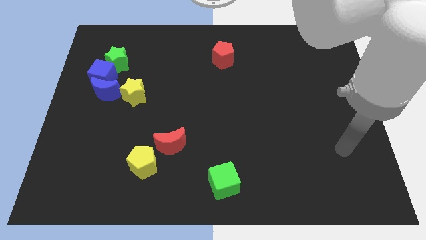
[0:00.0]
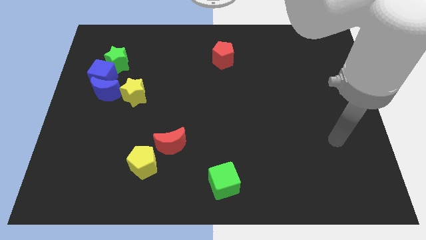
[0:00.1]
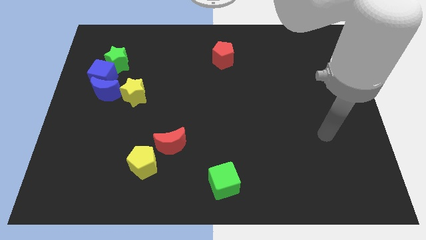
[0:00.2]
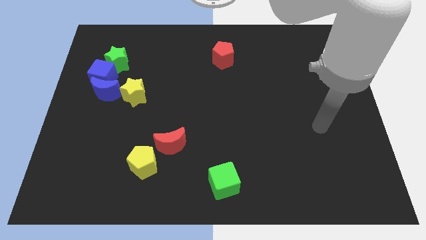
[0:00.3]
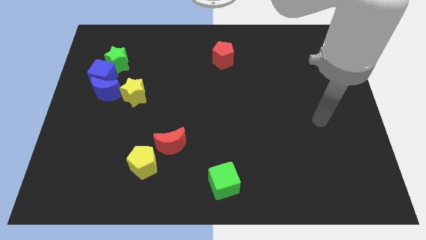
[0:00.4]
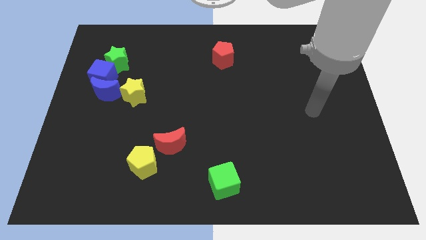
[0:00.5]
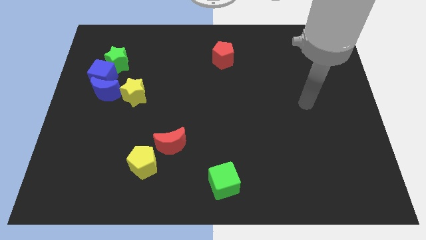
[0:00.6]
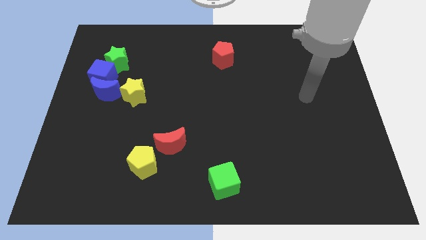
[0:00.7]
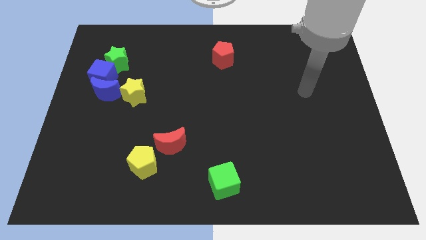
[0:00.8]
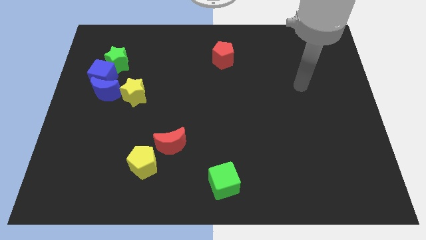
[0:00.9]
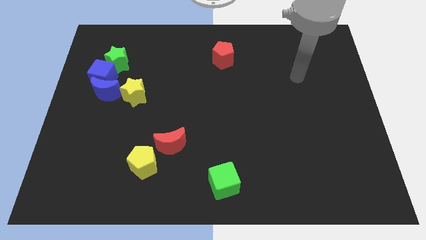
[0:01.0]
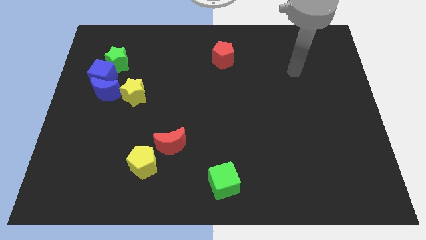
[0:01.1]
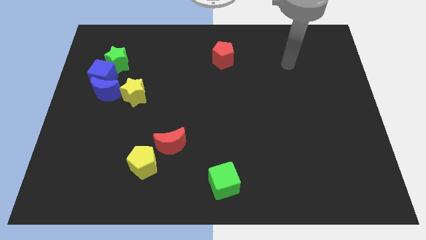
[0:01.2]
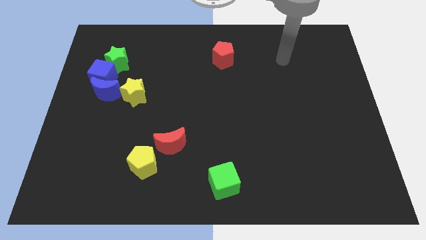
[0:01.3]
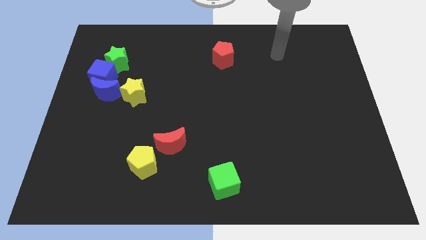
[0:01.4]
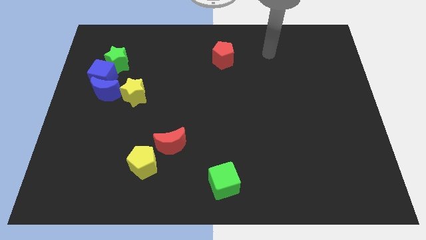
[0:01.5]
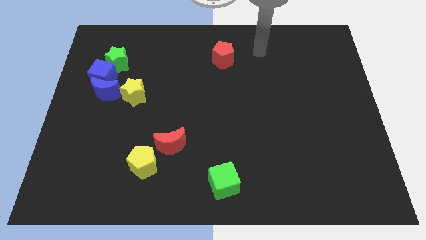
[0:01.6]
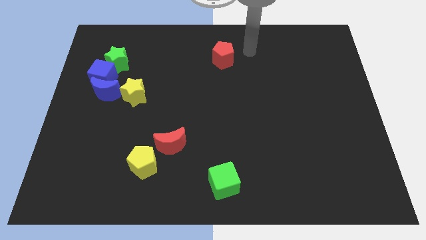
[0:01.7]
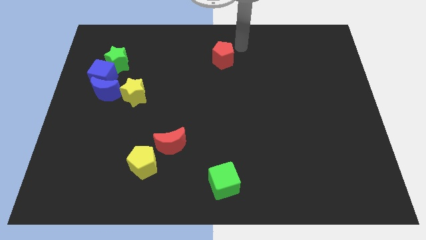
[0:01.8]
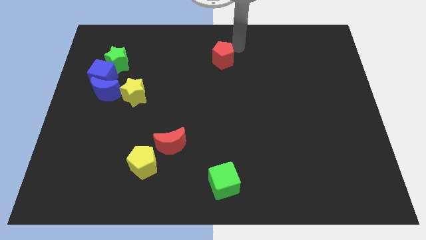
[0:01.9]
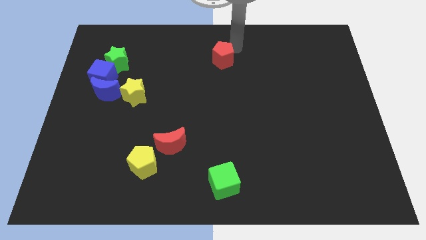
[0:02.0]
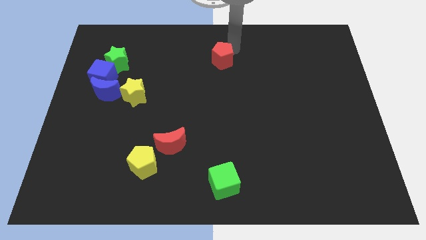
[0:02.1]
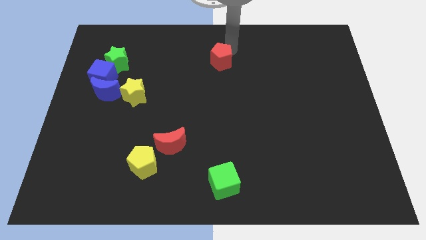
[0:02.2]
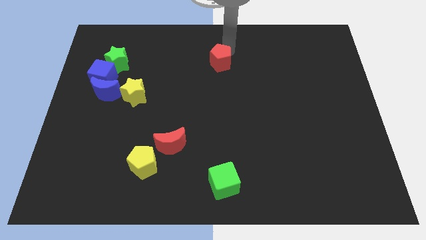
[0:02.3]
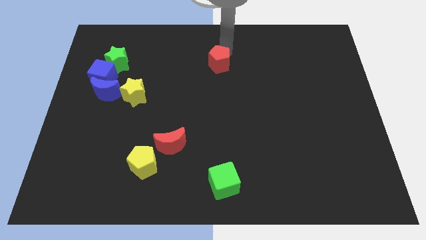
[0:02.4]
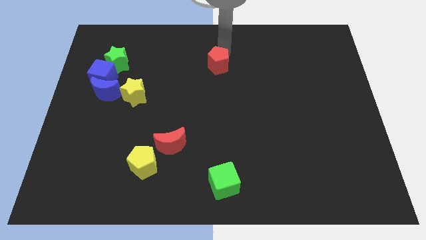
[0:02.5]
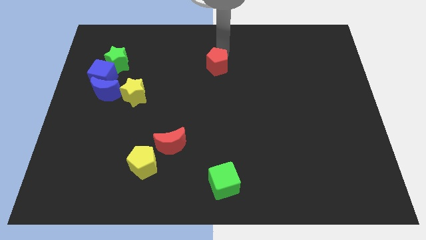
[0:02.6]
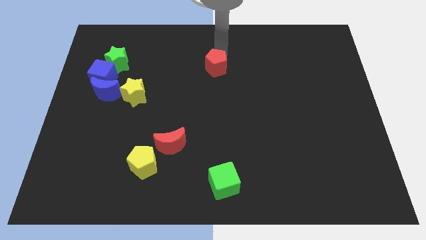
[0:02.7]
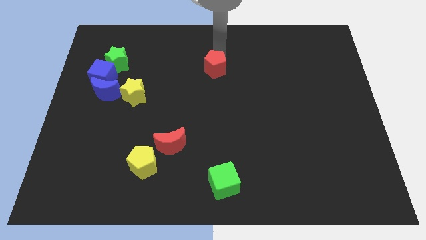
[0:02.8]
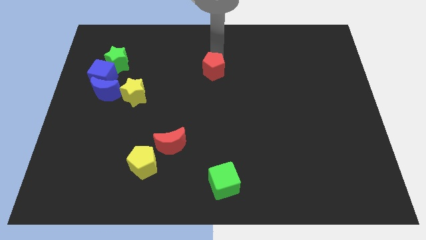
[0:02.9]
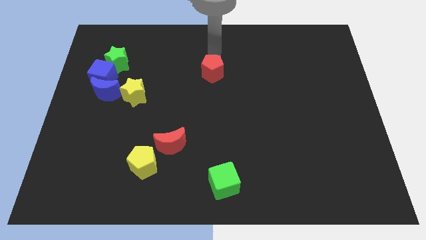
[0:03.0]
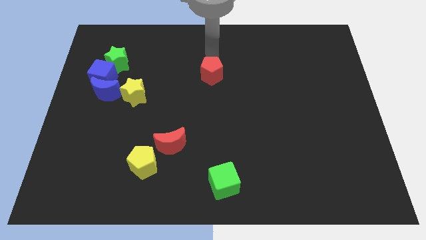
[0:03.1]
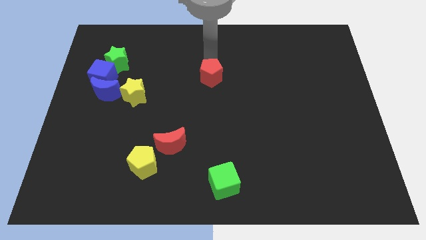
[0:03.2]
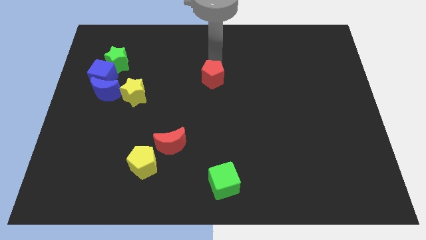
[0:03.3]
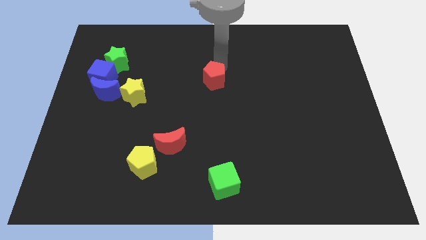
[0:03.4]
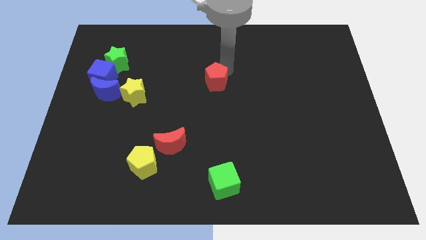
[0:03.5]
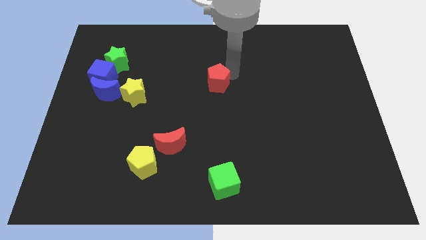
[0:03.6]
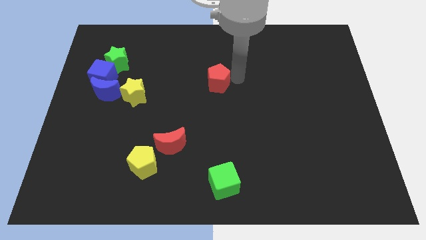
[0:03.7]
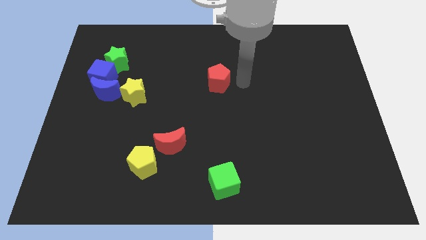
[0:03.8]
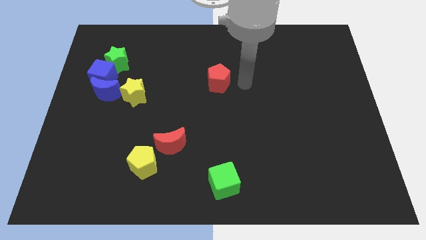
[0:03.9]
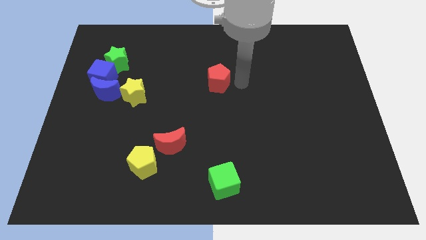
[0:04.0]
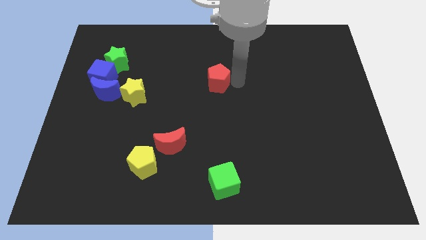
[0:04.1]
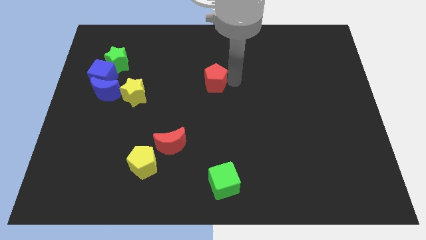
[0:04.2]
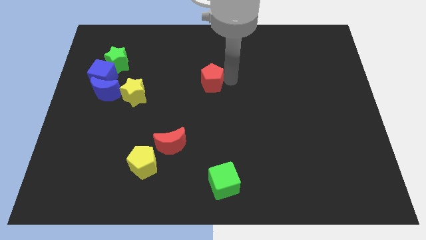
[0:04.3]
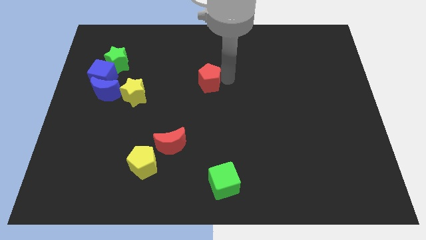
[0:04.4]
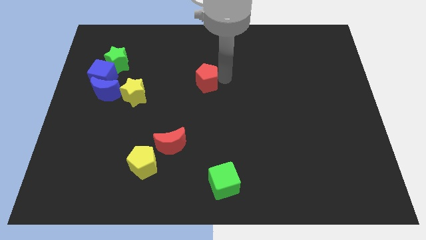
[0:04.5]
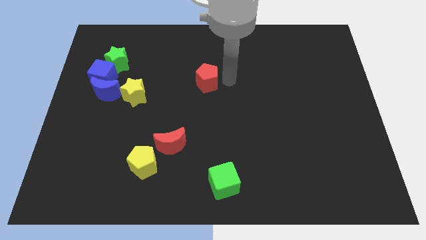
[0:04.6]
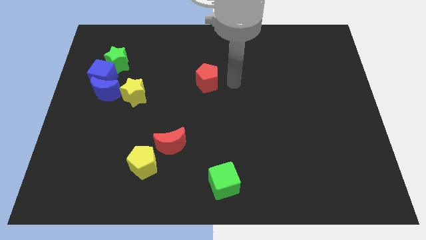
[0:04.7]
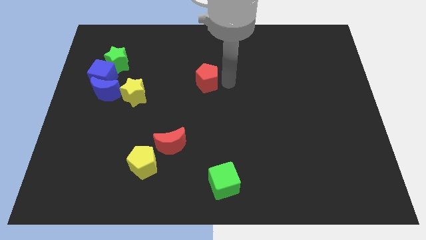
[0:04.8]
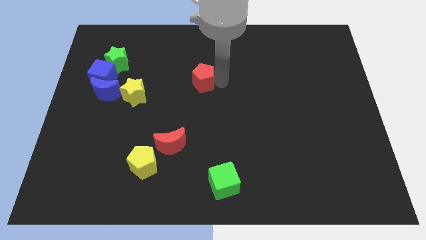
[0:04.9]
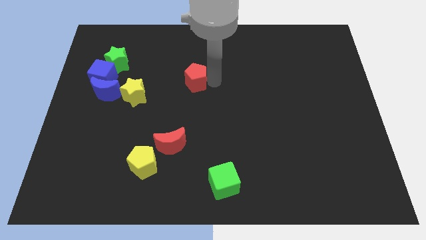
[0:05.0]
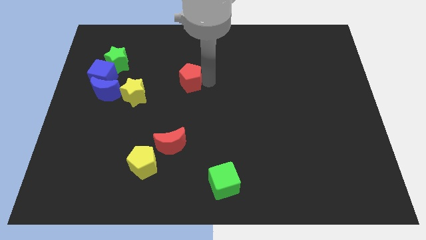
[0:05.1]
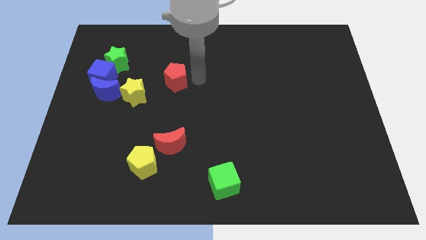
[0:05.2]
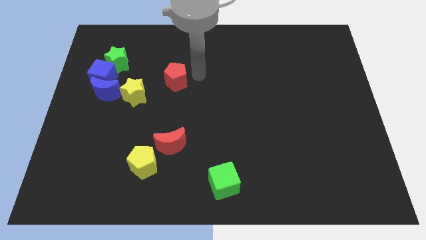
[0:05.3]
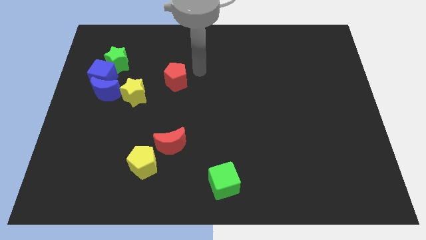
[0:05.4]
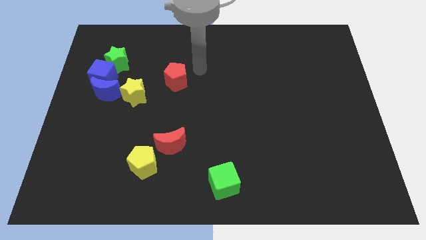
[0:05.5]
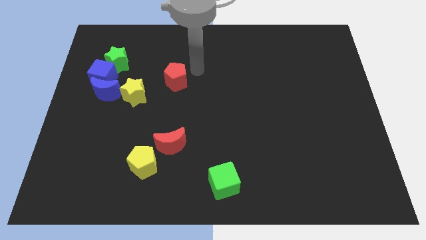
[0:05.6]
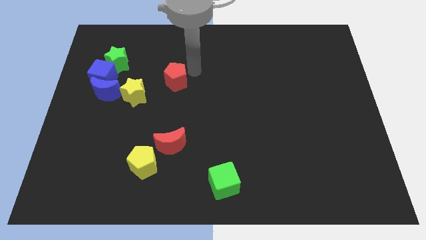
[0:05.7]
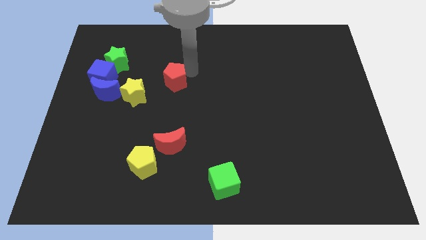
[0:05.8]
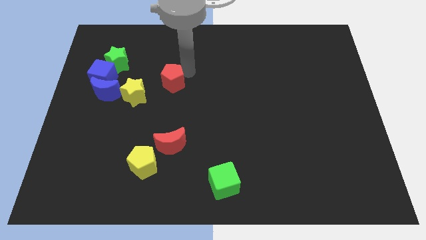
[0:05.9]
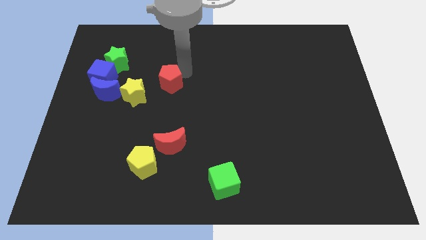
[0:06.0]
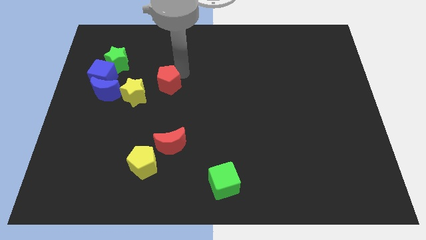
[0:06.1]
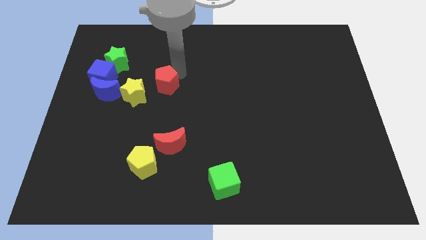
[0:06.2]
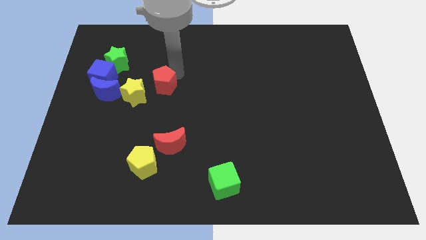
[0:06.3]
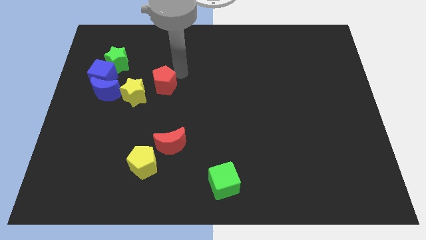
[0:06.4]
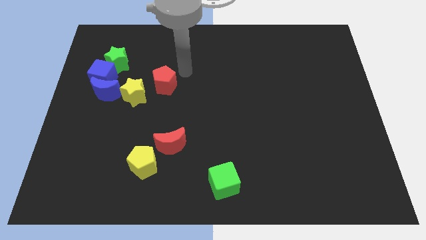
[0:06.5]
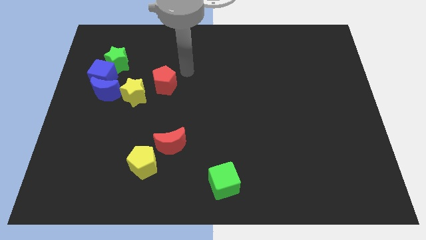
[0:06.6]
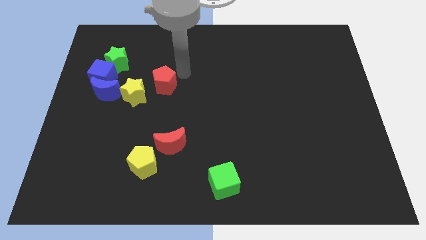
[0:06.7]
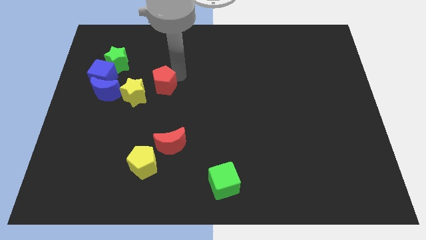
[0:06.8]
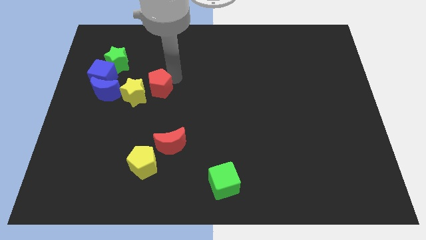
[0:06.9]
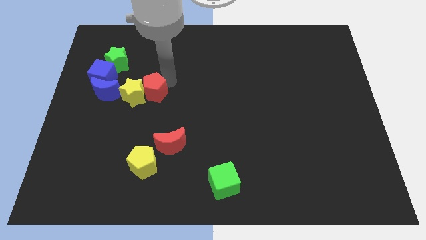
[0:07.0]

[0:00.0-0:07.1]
push the red pentagon towards the yellow star

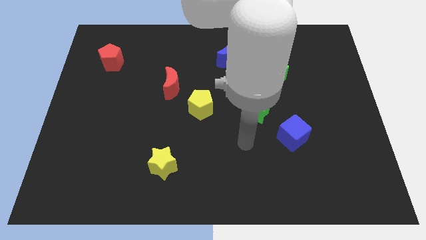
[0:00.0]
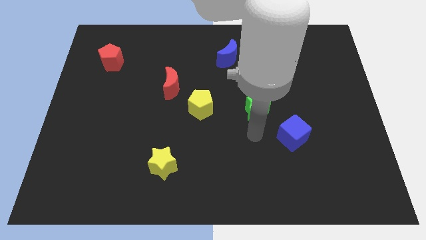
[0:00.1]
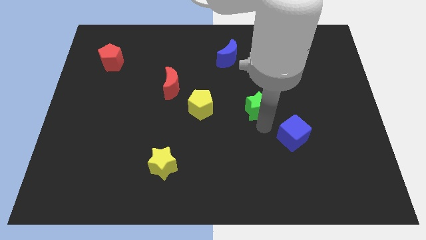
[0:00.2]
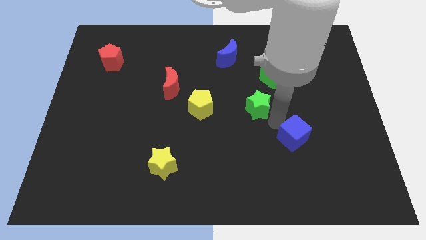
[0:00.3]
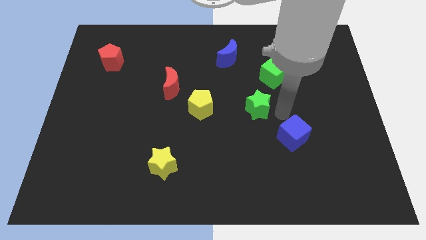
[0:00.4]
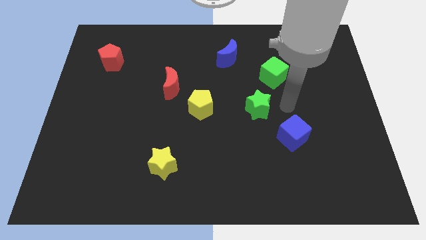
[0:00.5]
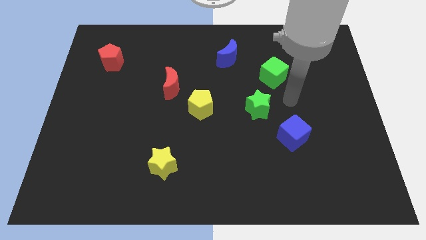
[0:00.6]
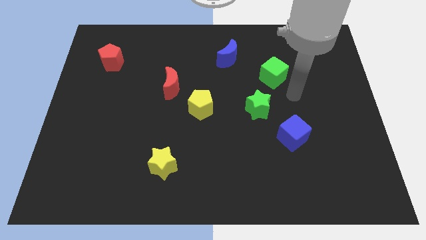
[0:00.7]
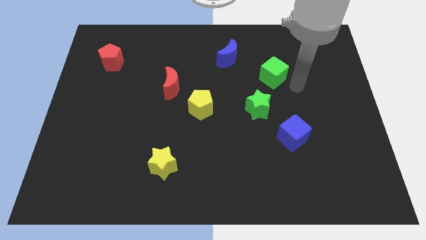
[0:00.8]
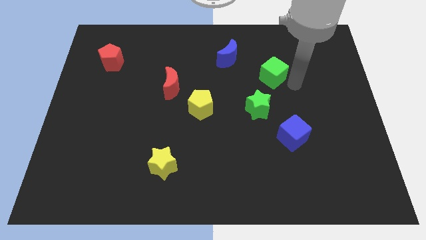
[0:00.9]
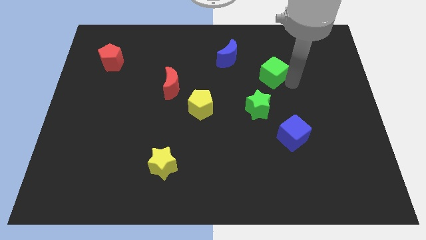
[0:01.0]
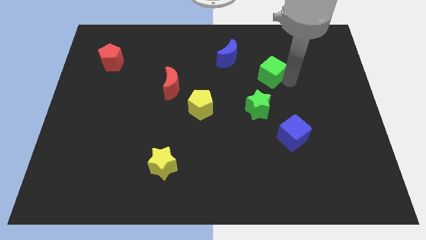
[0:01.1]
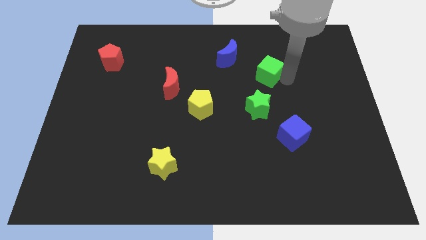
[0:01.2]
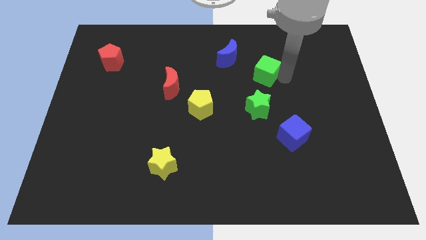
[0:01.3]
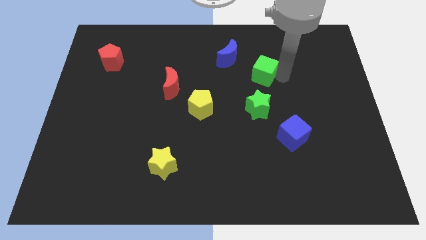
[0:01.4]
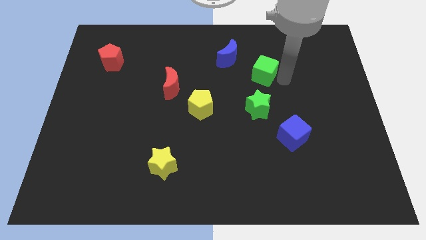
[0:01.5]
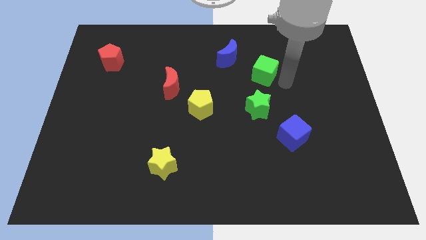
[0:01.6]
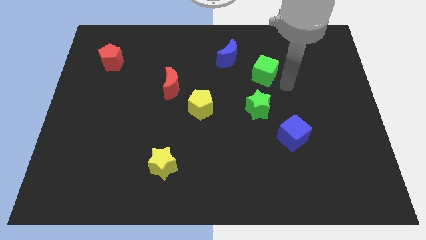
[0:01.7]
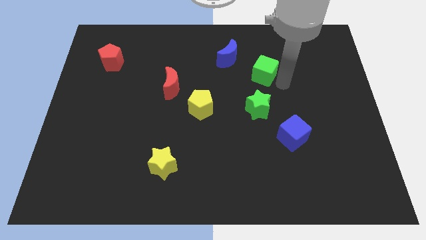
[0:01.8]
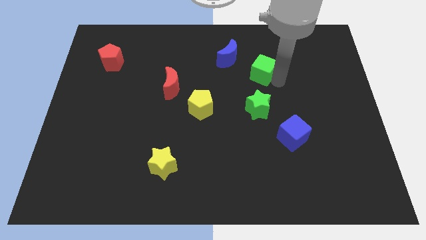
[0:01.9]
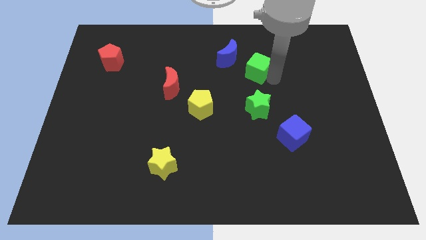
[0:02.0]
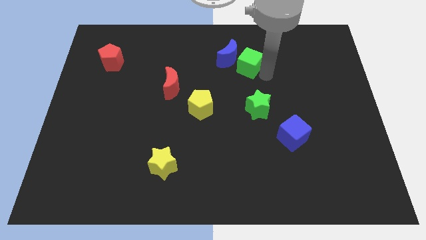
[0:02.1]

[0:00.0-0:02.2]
slide the green cube towards the blue moon
